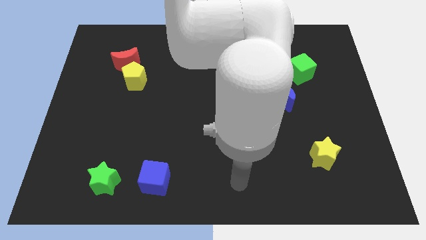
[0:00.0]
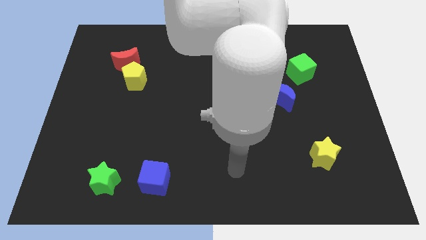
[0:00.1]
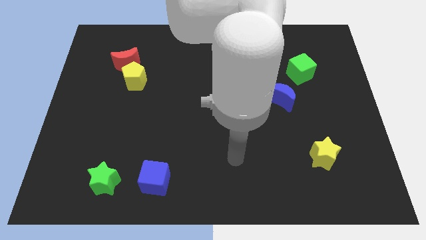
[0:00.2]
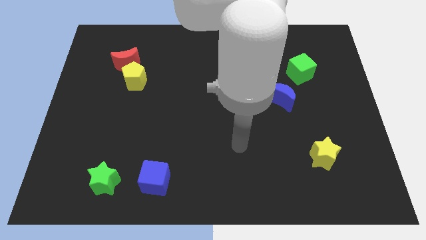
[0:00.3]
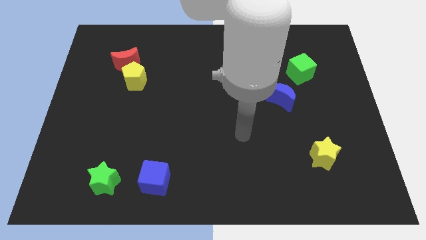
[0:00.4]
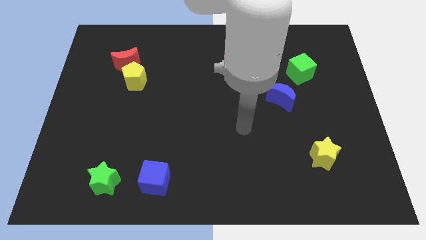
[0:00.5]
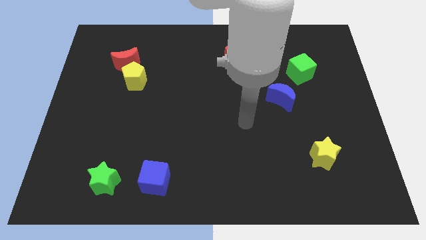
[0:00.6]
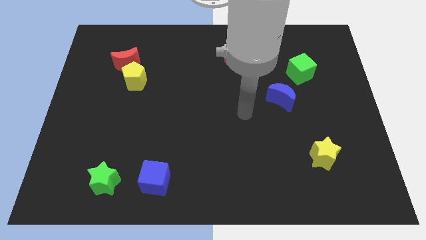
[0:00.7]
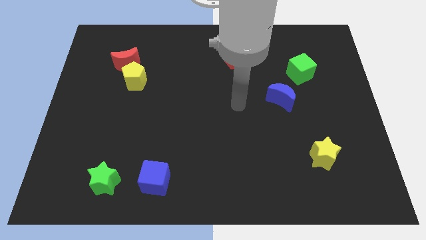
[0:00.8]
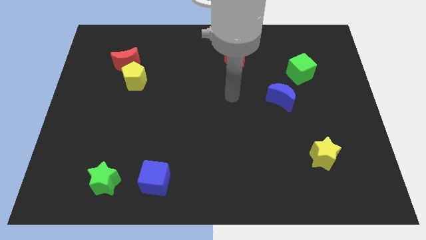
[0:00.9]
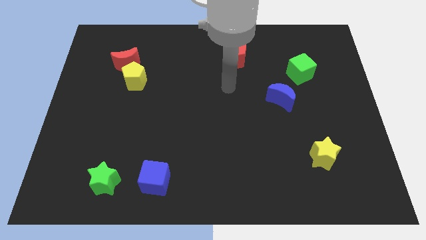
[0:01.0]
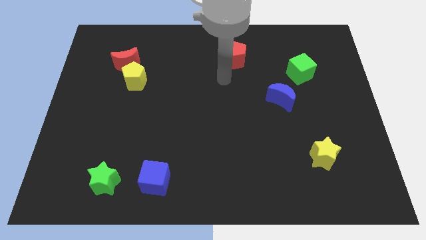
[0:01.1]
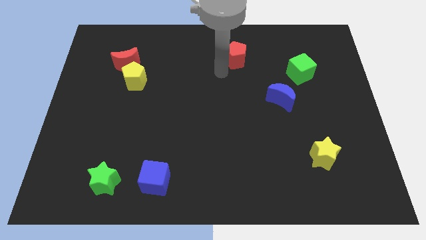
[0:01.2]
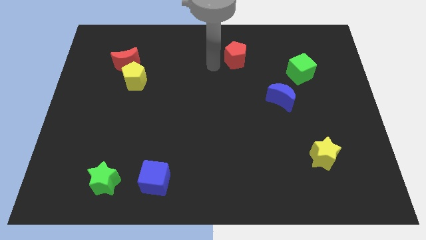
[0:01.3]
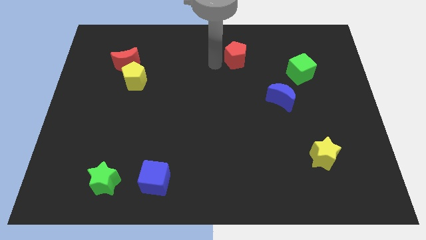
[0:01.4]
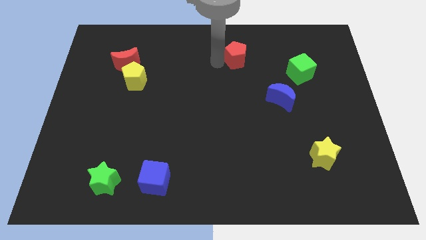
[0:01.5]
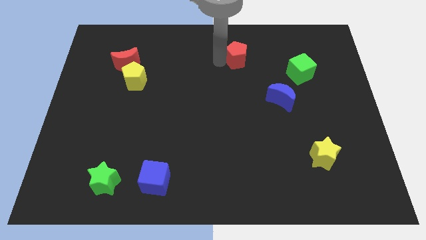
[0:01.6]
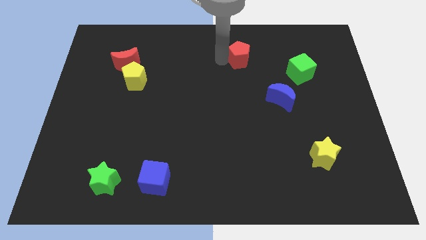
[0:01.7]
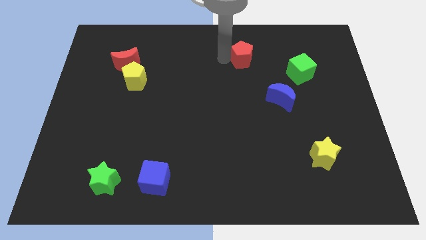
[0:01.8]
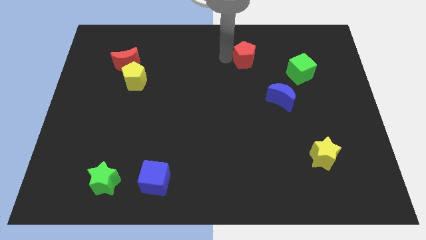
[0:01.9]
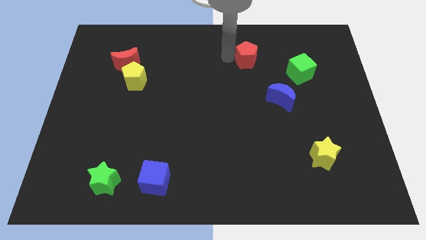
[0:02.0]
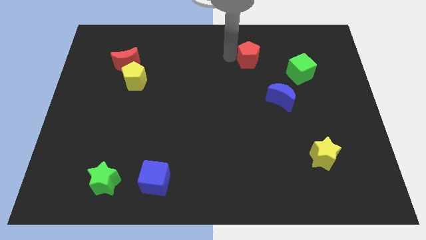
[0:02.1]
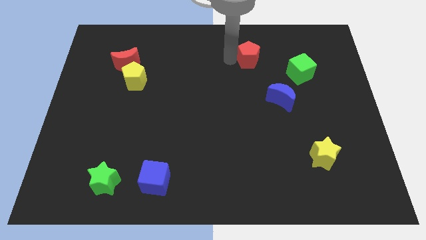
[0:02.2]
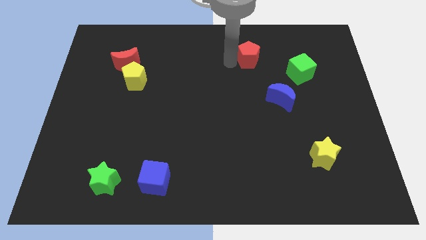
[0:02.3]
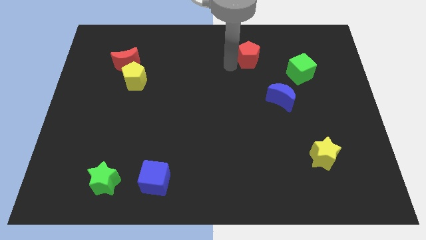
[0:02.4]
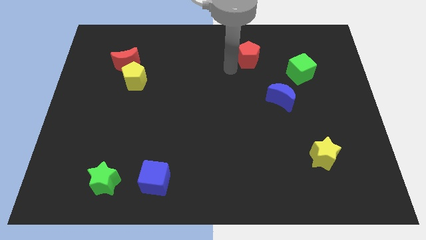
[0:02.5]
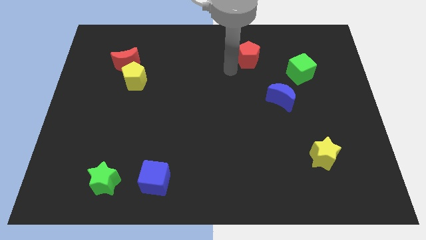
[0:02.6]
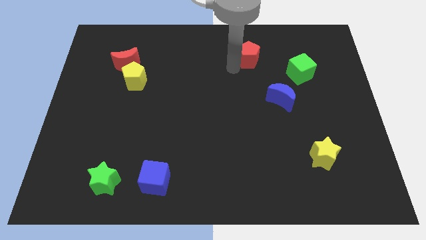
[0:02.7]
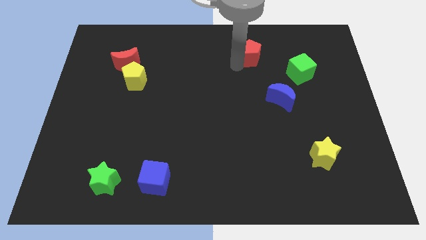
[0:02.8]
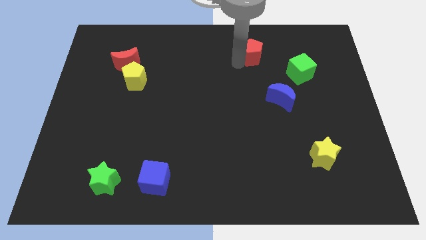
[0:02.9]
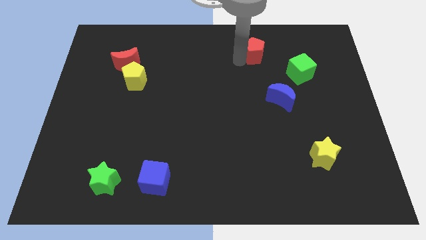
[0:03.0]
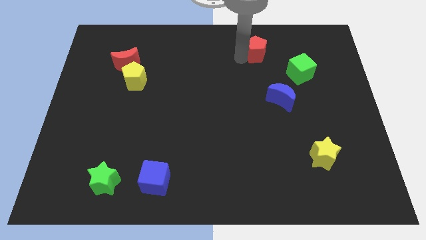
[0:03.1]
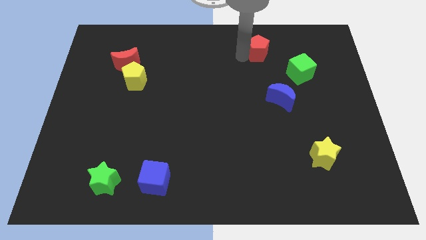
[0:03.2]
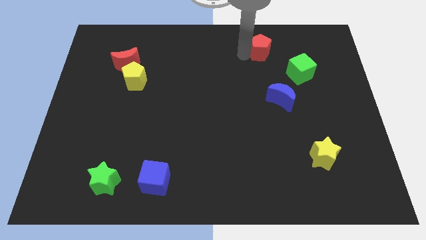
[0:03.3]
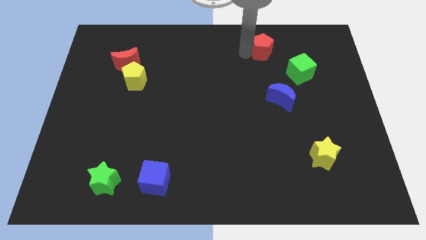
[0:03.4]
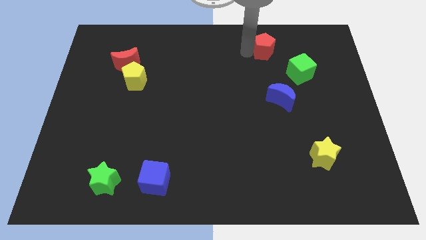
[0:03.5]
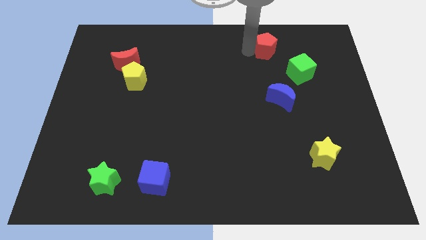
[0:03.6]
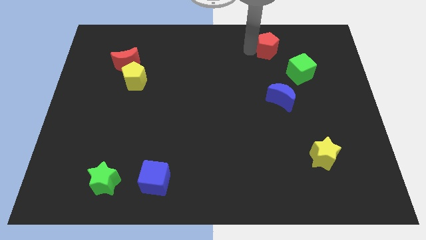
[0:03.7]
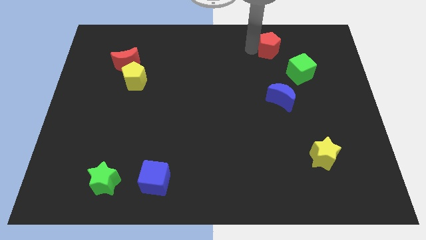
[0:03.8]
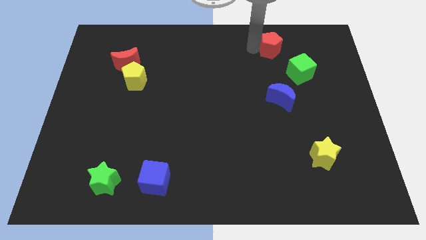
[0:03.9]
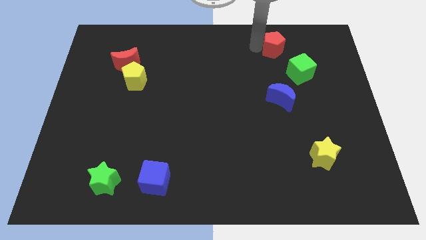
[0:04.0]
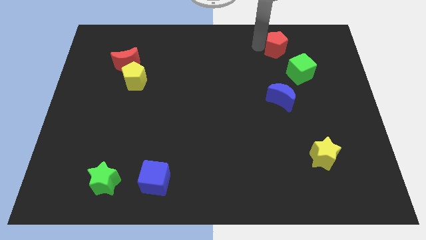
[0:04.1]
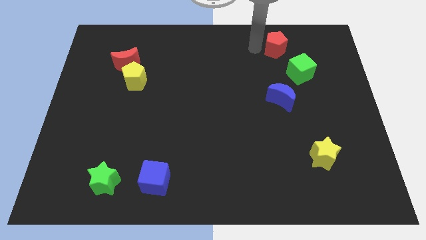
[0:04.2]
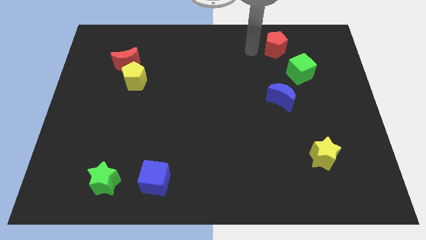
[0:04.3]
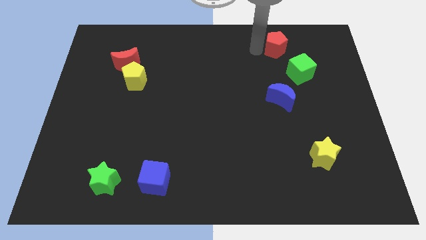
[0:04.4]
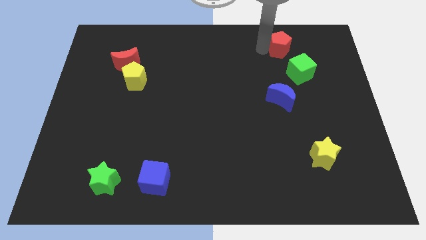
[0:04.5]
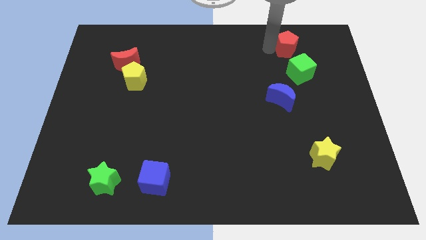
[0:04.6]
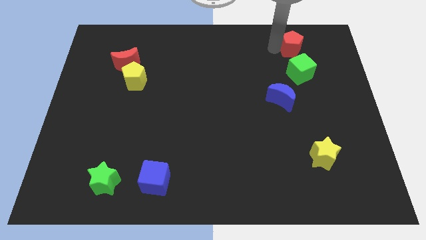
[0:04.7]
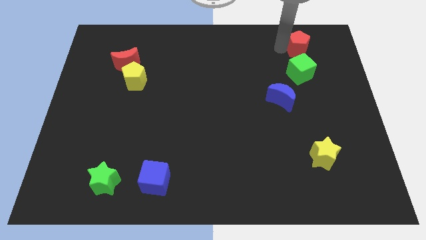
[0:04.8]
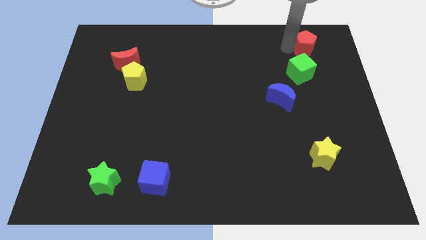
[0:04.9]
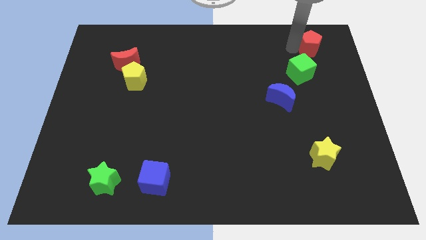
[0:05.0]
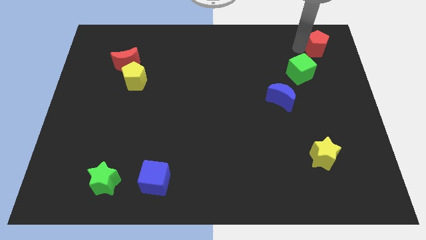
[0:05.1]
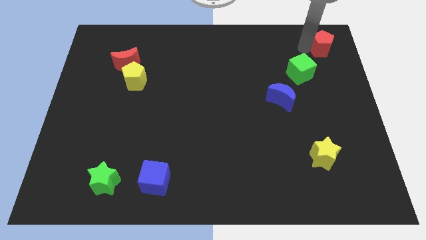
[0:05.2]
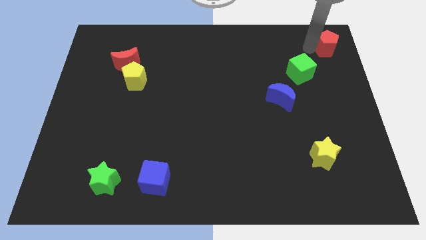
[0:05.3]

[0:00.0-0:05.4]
move the red pentagon to the upper right corner

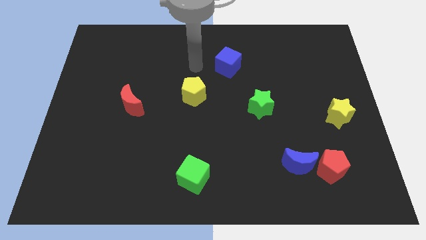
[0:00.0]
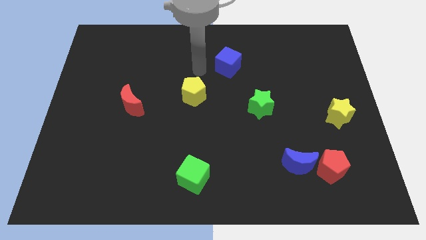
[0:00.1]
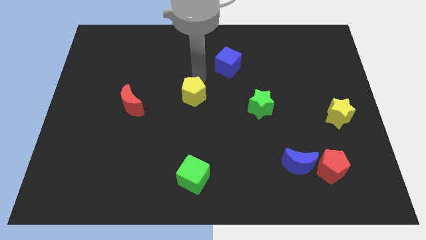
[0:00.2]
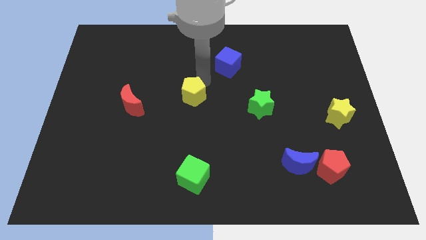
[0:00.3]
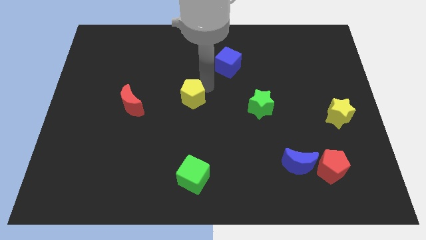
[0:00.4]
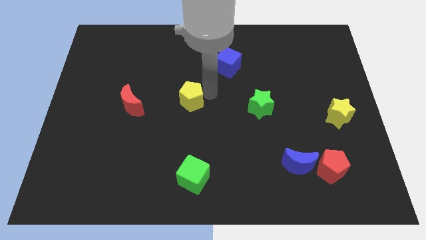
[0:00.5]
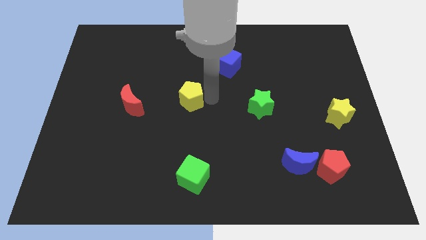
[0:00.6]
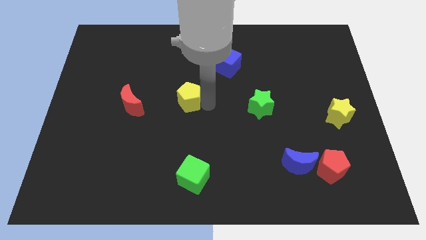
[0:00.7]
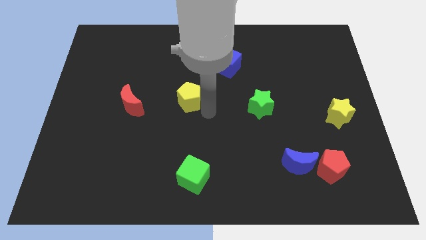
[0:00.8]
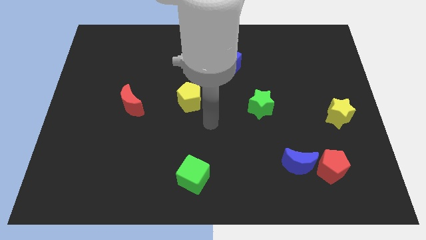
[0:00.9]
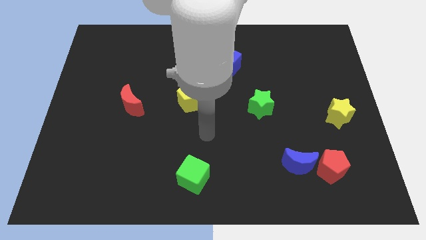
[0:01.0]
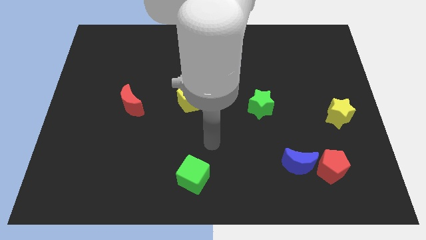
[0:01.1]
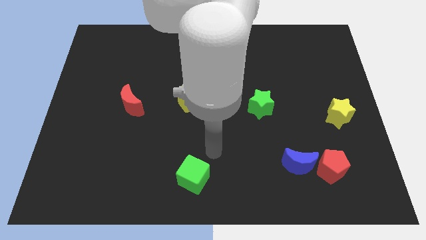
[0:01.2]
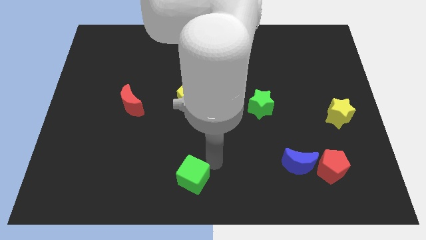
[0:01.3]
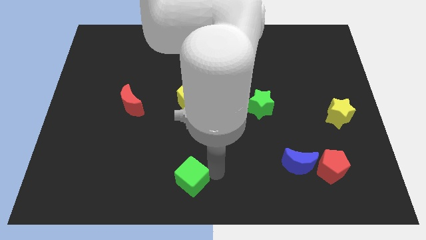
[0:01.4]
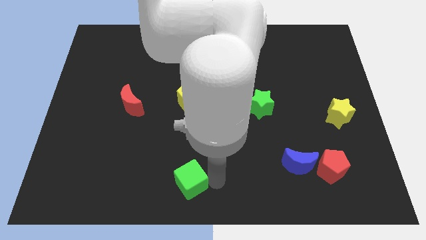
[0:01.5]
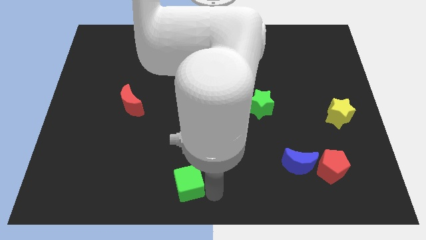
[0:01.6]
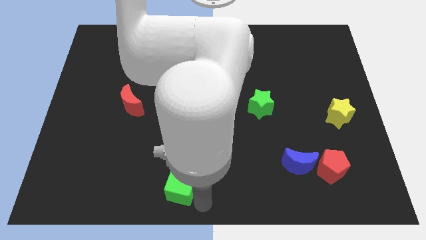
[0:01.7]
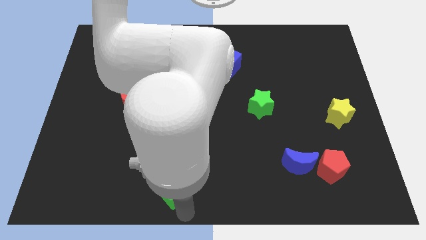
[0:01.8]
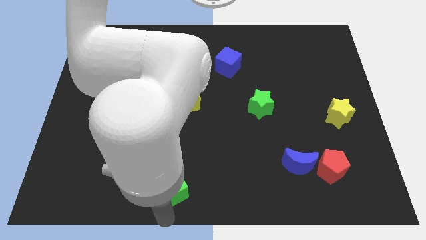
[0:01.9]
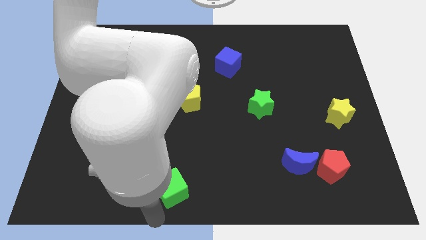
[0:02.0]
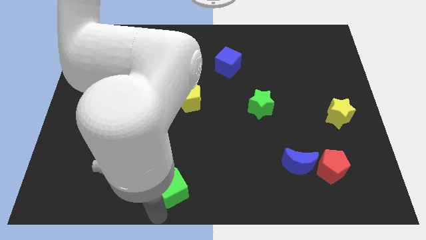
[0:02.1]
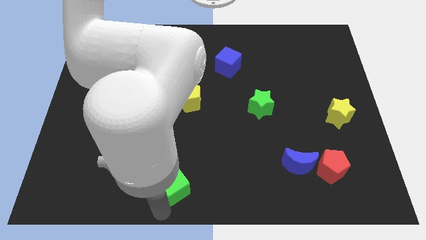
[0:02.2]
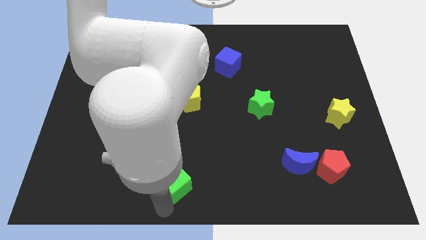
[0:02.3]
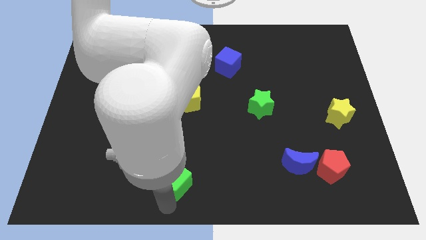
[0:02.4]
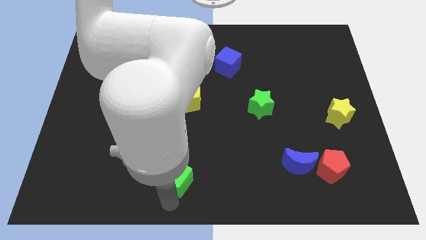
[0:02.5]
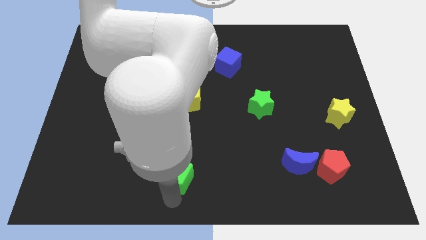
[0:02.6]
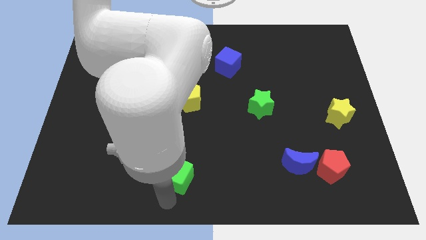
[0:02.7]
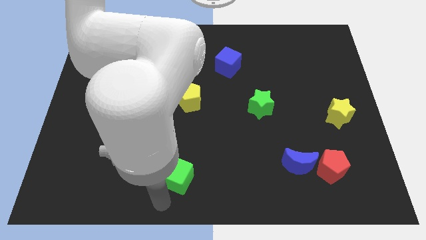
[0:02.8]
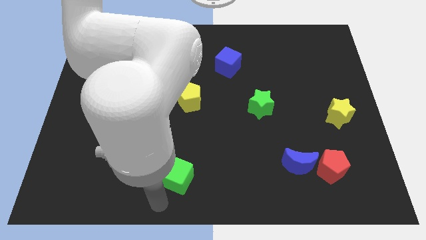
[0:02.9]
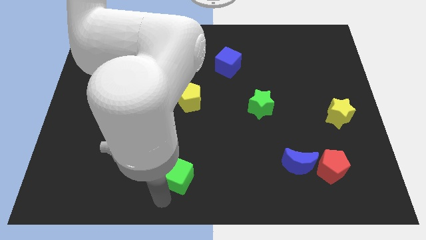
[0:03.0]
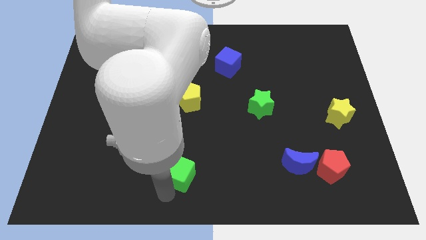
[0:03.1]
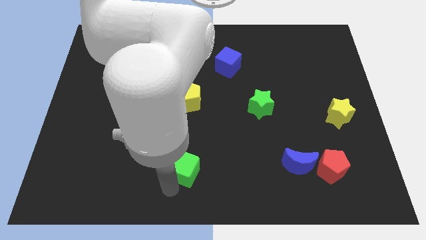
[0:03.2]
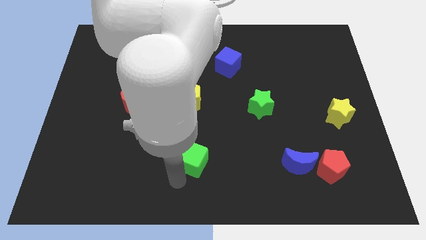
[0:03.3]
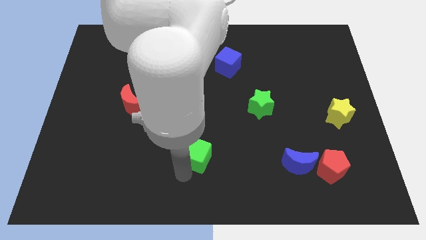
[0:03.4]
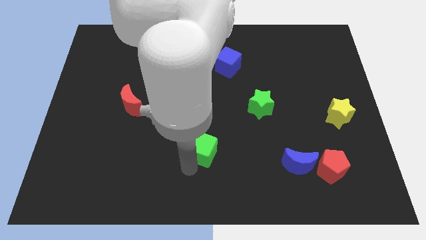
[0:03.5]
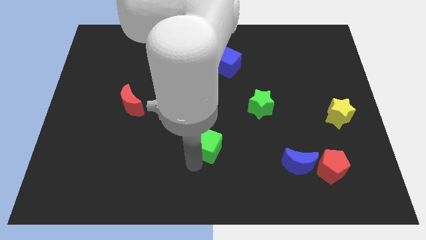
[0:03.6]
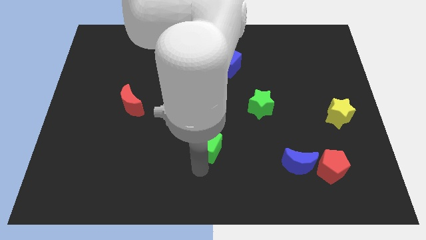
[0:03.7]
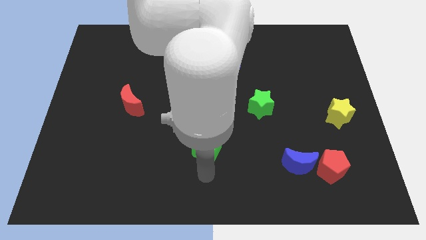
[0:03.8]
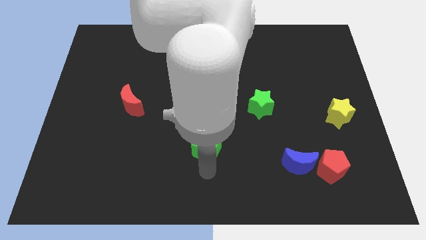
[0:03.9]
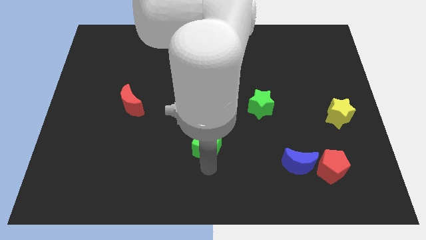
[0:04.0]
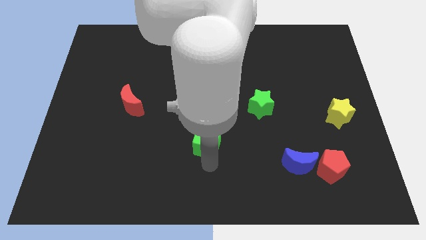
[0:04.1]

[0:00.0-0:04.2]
move the green cube to the middle of the board
